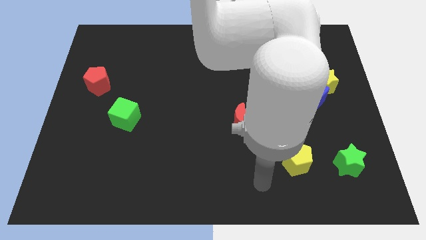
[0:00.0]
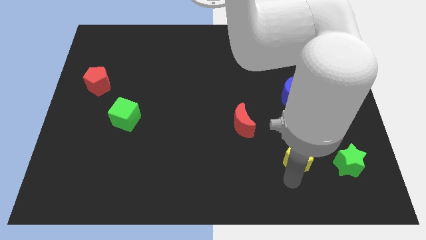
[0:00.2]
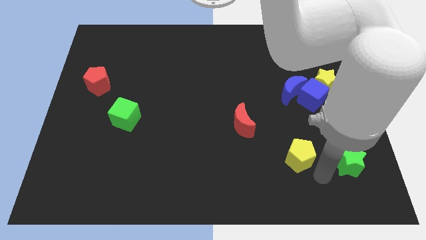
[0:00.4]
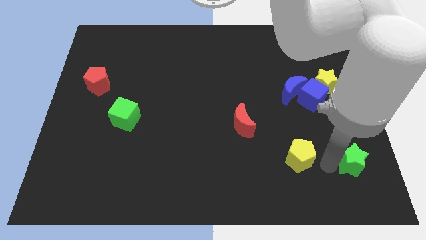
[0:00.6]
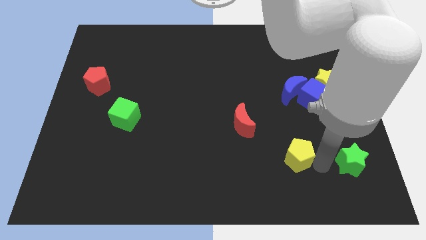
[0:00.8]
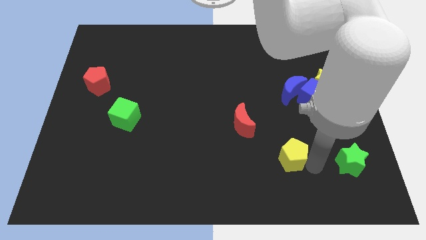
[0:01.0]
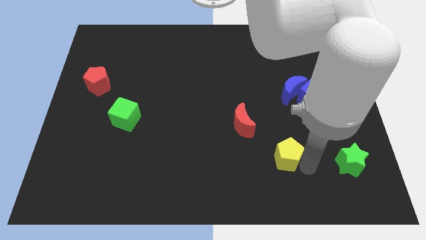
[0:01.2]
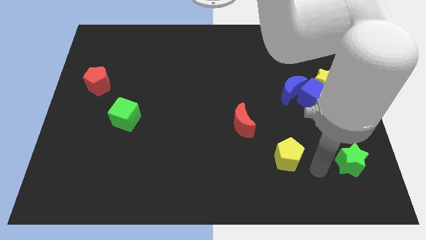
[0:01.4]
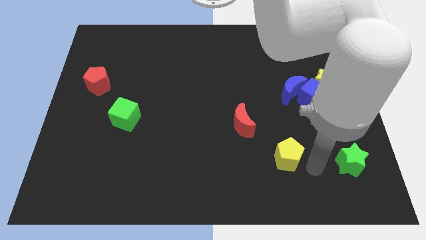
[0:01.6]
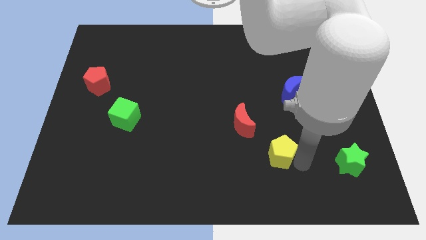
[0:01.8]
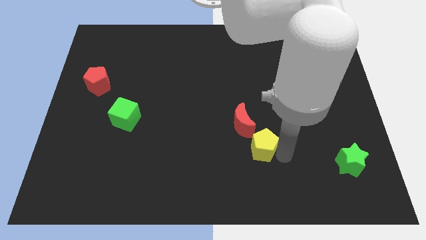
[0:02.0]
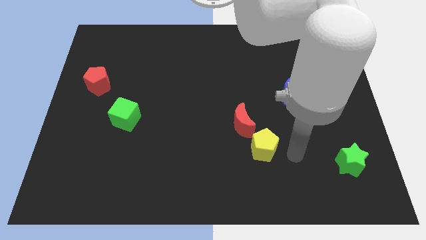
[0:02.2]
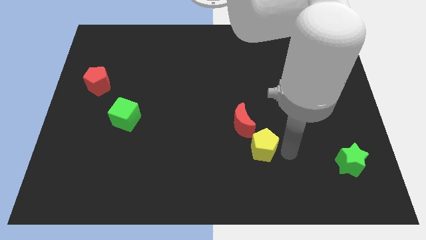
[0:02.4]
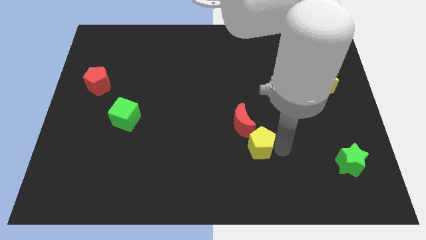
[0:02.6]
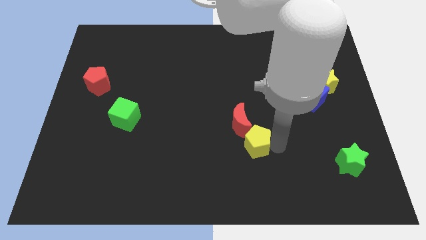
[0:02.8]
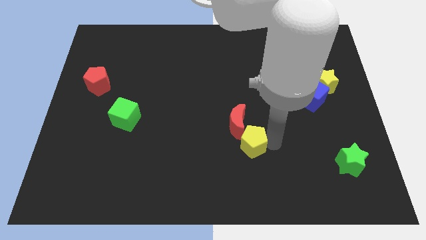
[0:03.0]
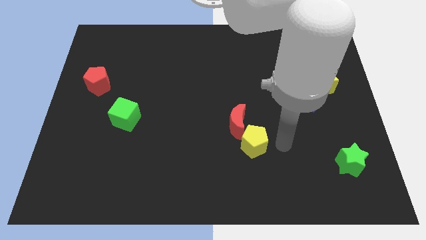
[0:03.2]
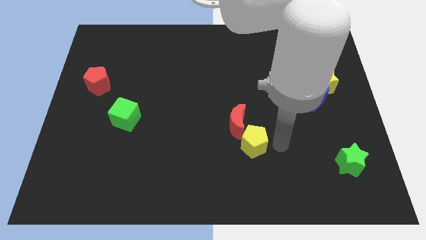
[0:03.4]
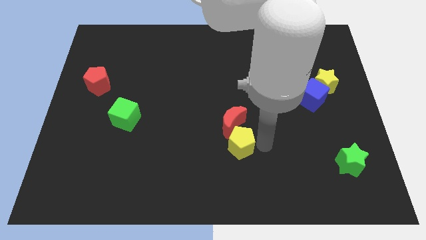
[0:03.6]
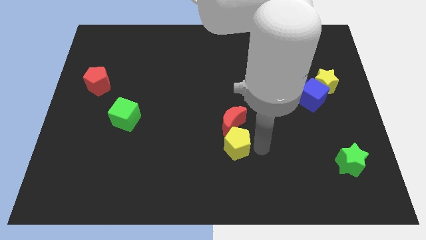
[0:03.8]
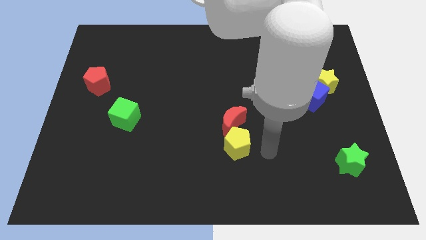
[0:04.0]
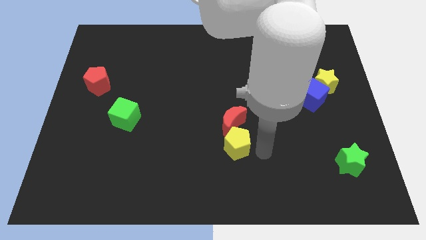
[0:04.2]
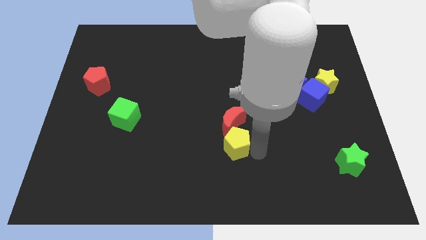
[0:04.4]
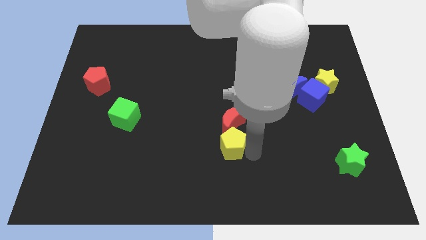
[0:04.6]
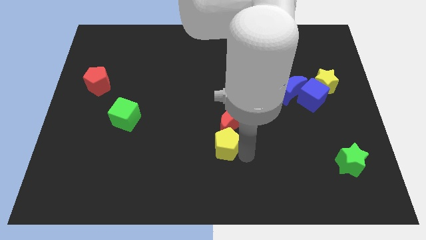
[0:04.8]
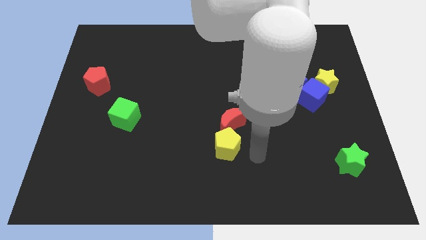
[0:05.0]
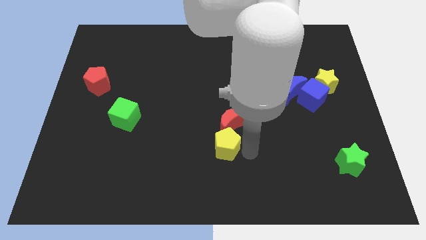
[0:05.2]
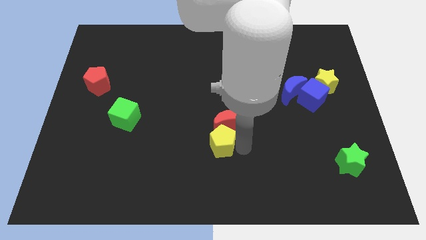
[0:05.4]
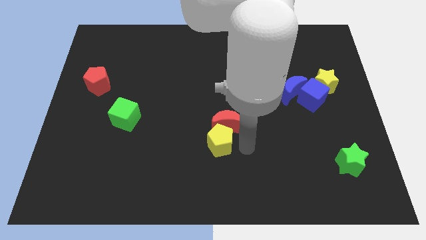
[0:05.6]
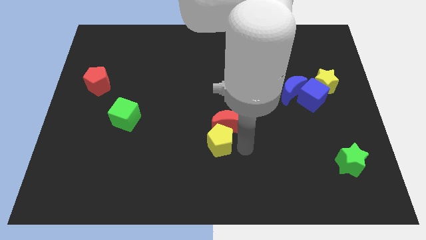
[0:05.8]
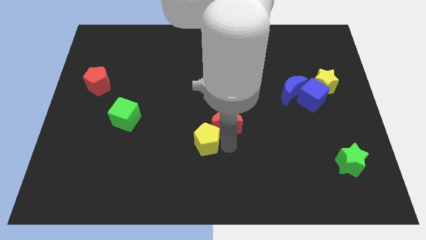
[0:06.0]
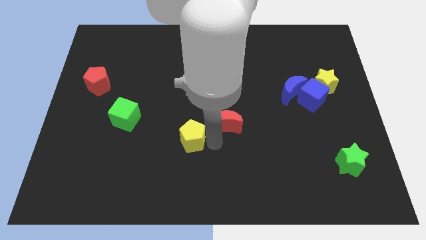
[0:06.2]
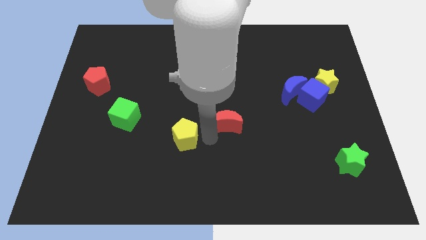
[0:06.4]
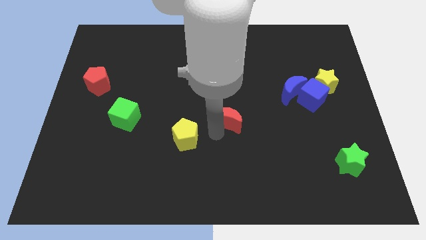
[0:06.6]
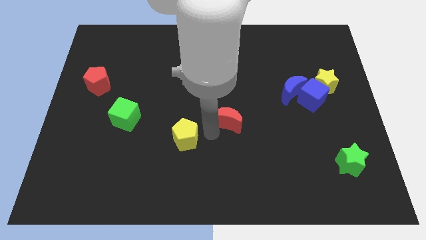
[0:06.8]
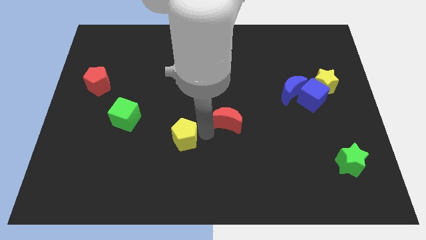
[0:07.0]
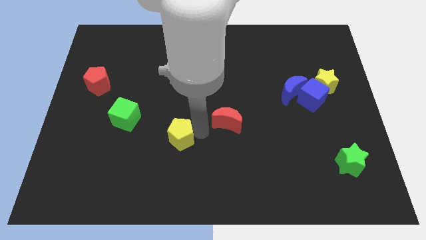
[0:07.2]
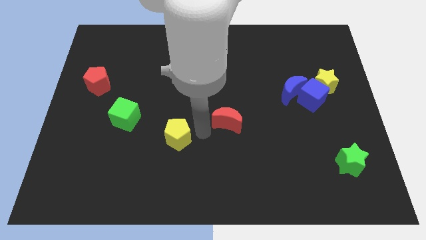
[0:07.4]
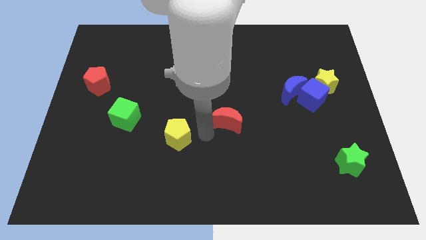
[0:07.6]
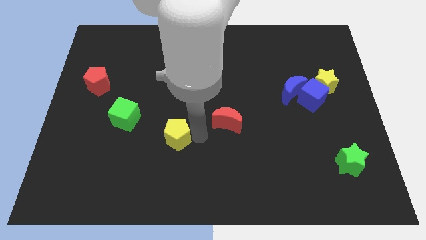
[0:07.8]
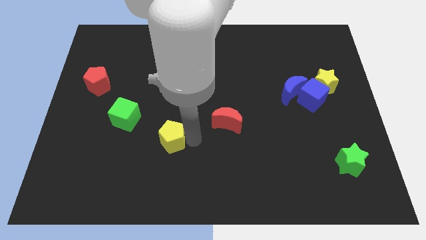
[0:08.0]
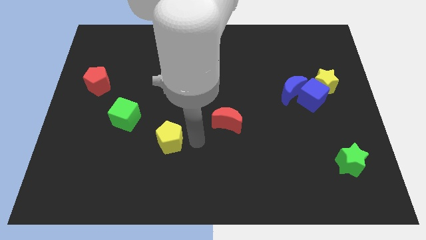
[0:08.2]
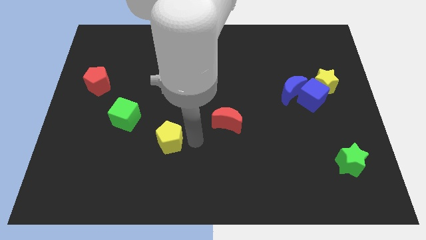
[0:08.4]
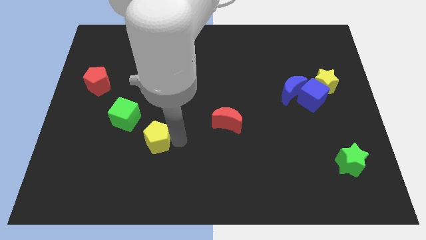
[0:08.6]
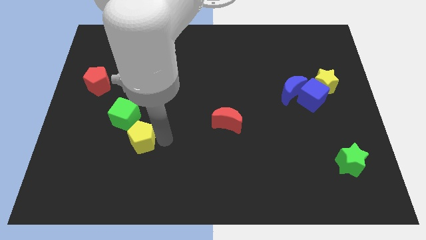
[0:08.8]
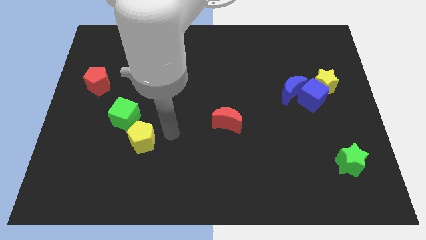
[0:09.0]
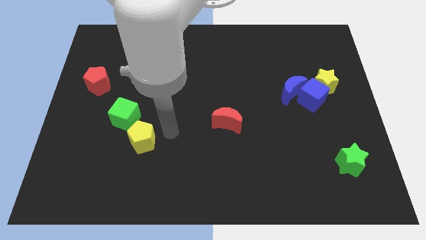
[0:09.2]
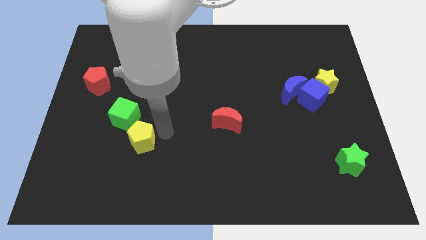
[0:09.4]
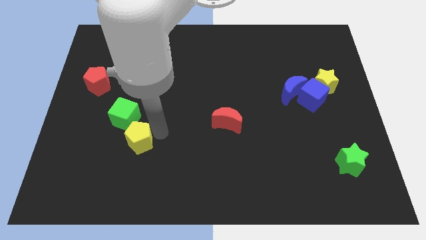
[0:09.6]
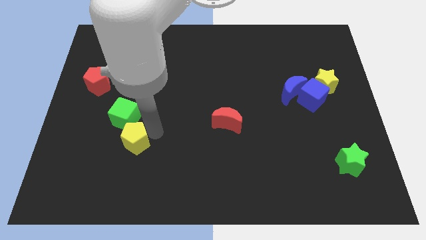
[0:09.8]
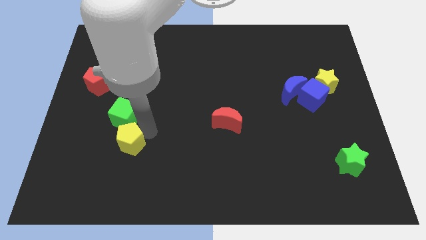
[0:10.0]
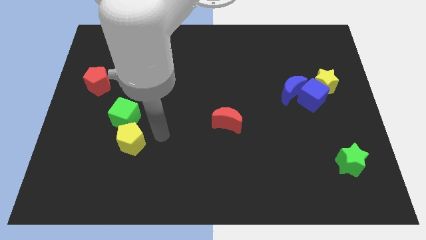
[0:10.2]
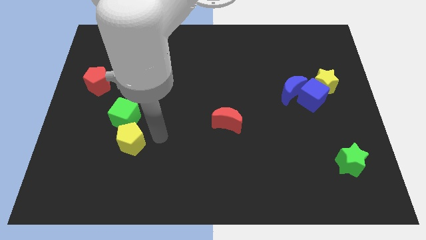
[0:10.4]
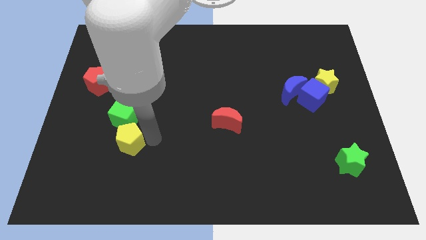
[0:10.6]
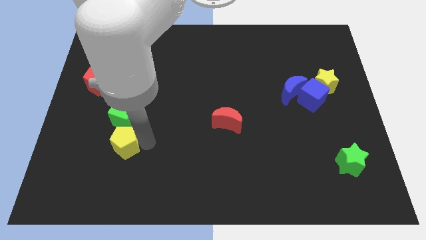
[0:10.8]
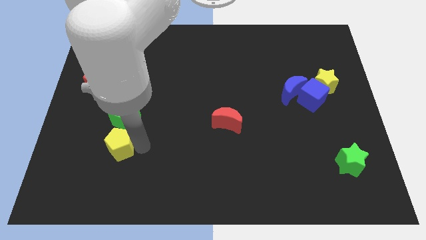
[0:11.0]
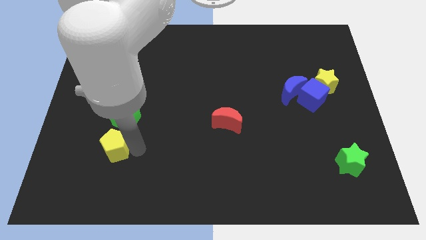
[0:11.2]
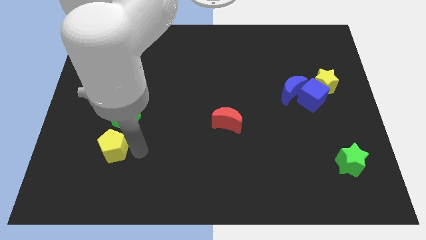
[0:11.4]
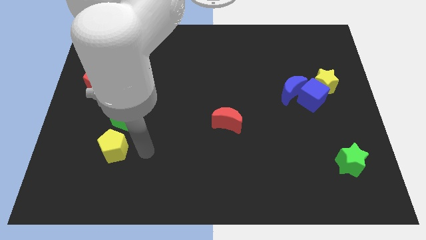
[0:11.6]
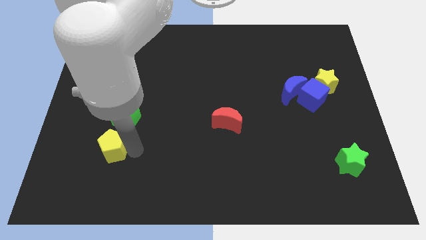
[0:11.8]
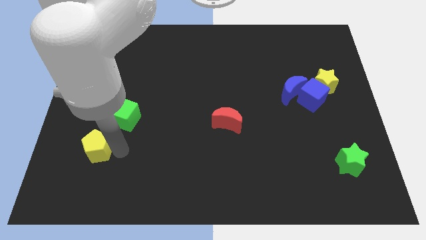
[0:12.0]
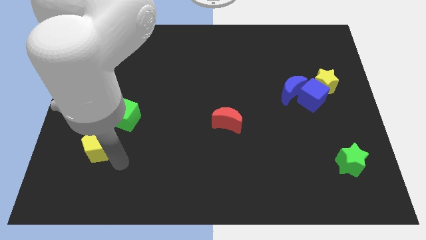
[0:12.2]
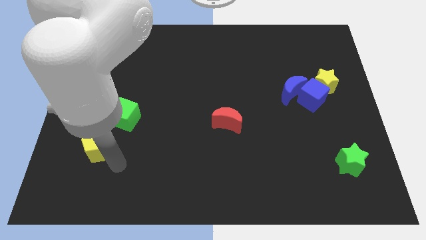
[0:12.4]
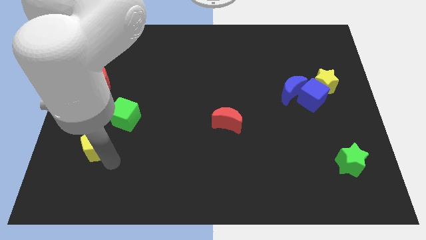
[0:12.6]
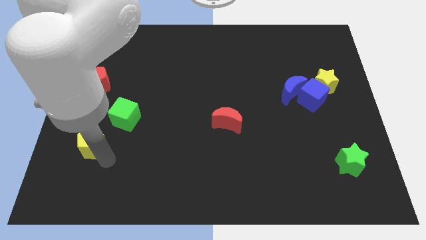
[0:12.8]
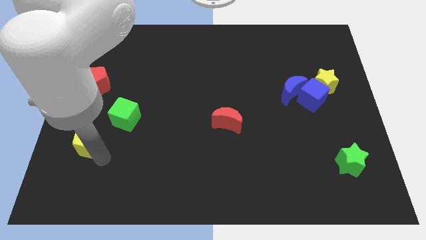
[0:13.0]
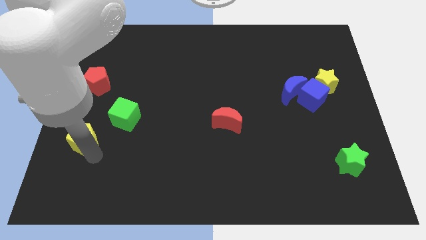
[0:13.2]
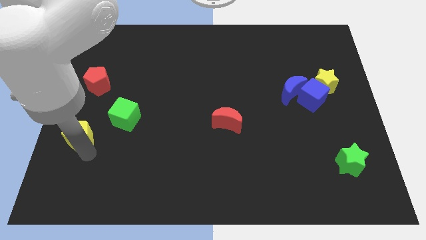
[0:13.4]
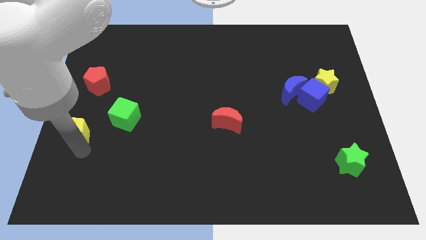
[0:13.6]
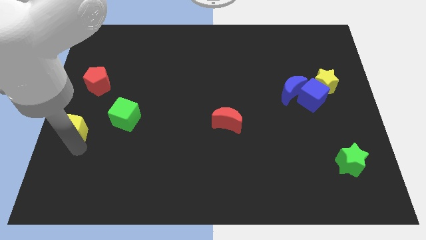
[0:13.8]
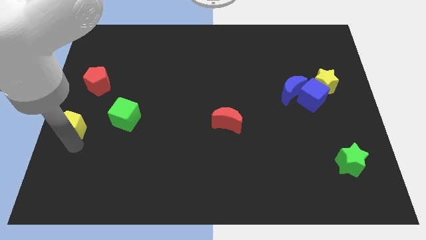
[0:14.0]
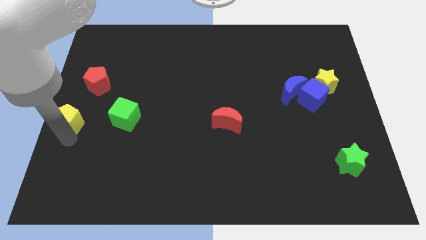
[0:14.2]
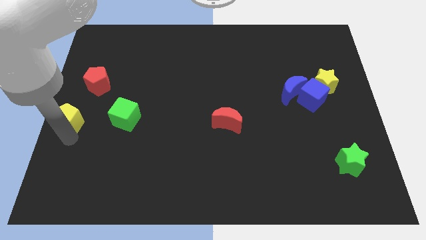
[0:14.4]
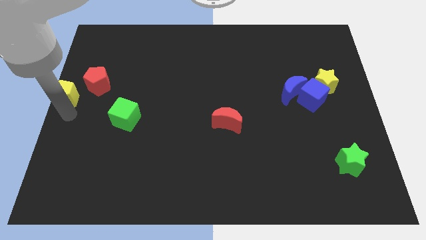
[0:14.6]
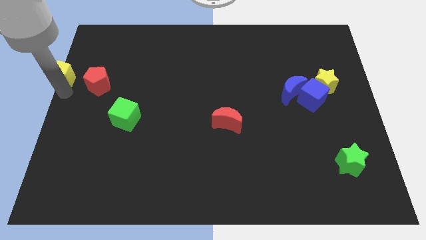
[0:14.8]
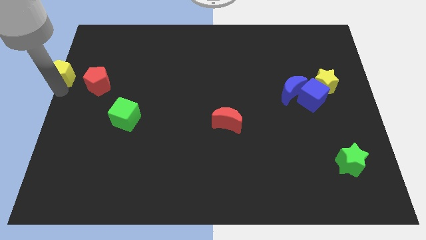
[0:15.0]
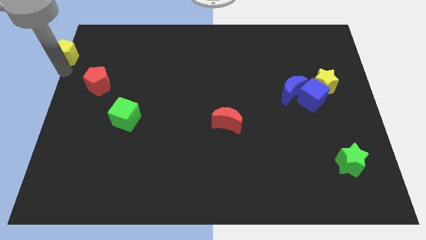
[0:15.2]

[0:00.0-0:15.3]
slide the yellow pentagon to the top left corner
